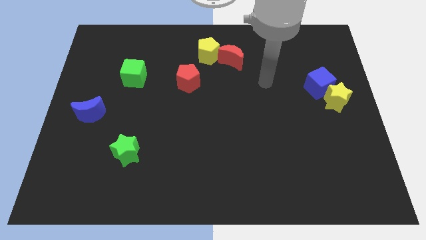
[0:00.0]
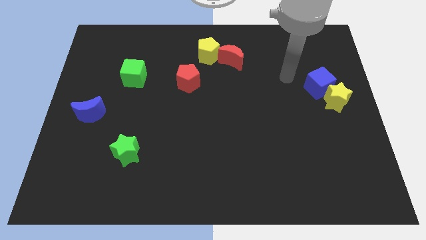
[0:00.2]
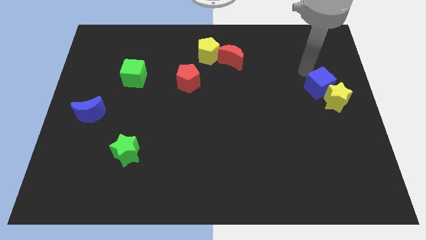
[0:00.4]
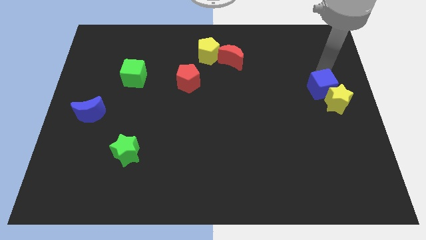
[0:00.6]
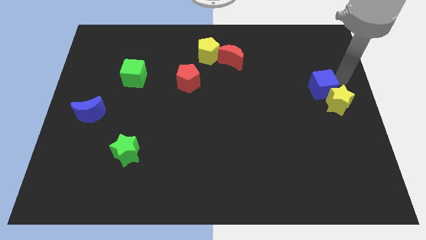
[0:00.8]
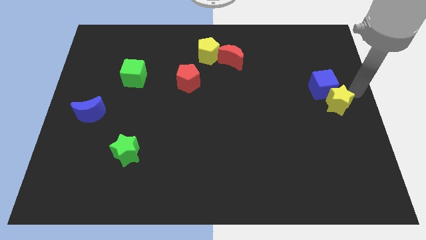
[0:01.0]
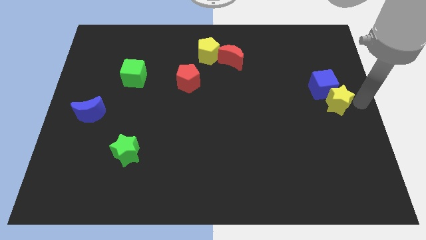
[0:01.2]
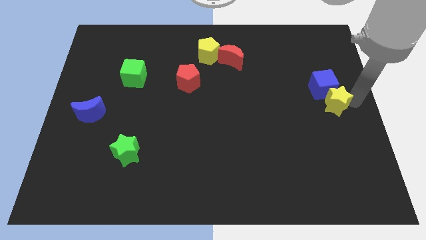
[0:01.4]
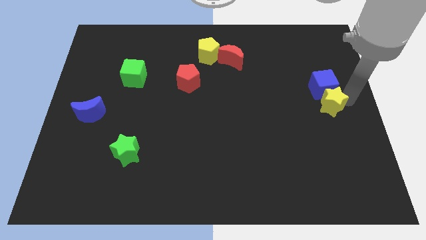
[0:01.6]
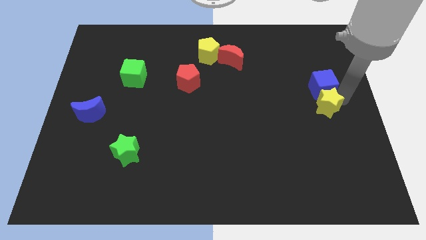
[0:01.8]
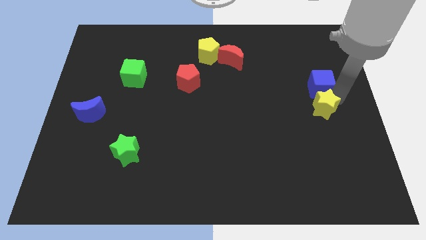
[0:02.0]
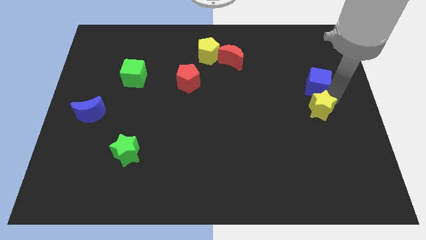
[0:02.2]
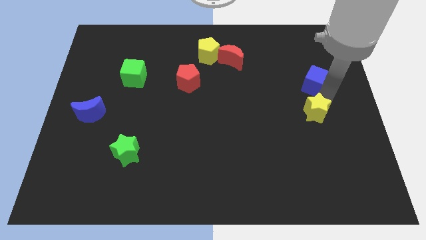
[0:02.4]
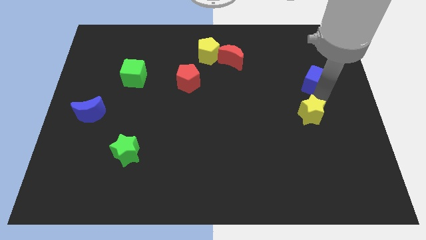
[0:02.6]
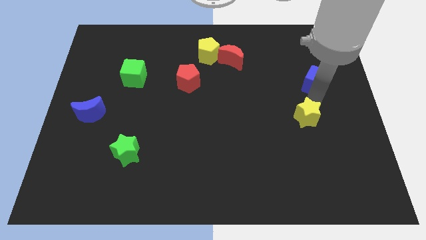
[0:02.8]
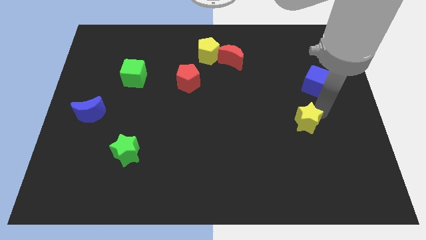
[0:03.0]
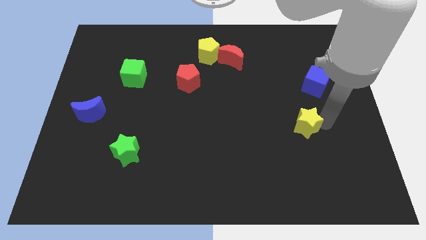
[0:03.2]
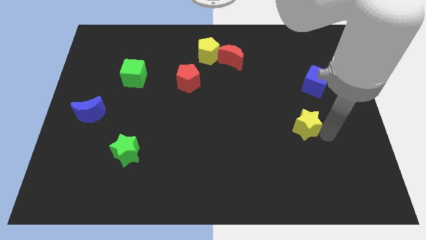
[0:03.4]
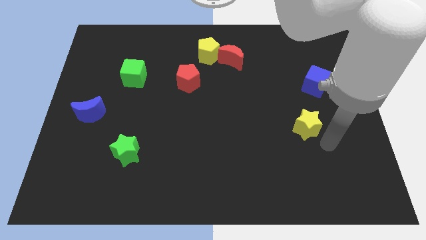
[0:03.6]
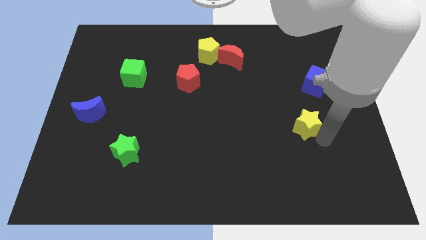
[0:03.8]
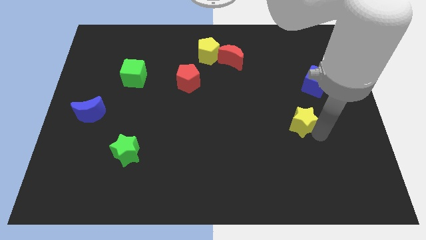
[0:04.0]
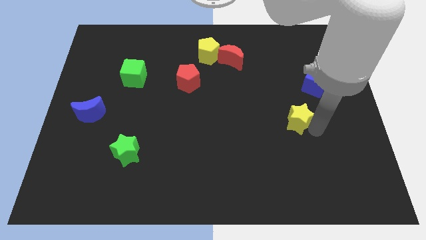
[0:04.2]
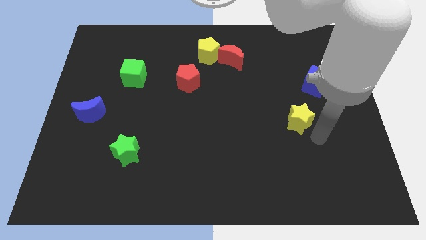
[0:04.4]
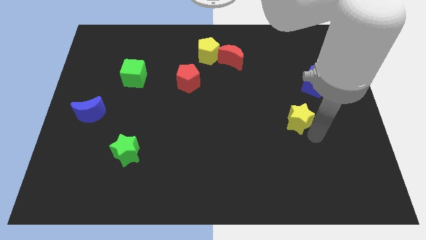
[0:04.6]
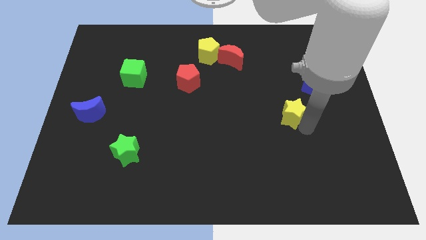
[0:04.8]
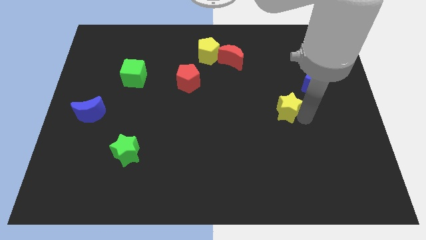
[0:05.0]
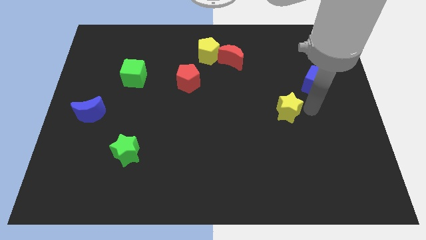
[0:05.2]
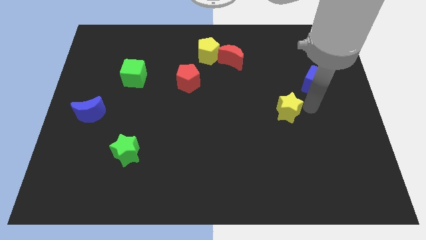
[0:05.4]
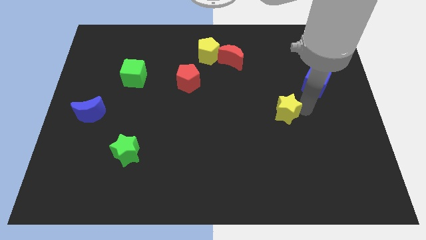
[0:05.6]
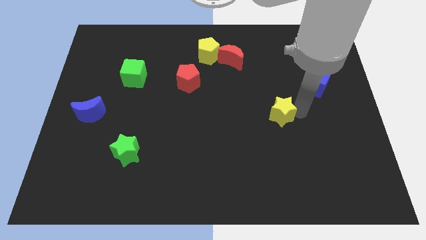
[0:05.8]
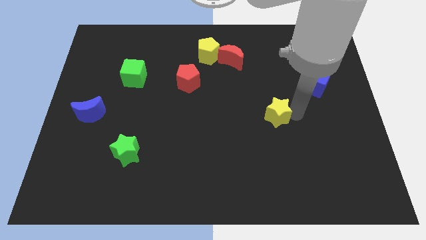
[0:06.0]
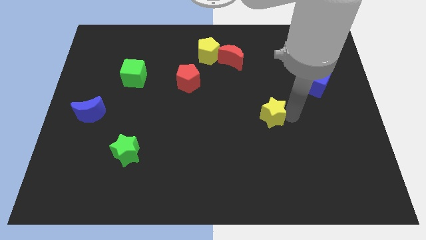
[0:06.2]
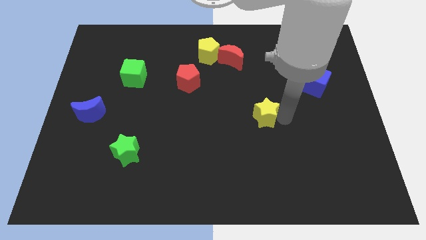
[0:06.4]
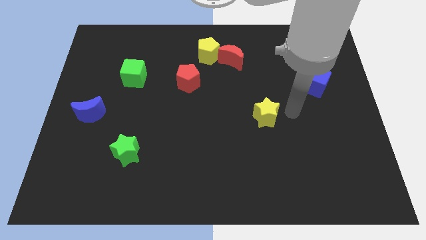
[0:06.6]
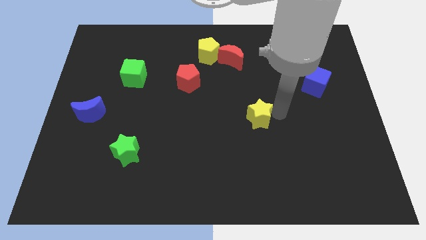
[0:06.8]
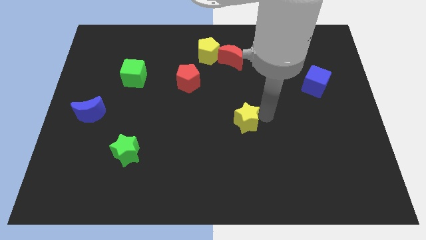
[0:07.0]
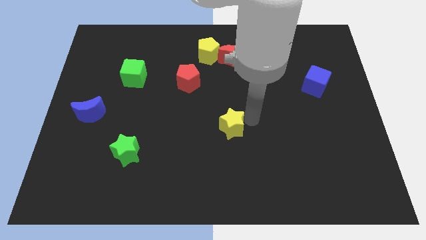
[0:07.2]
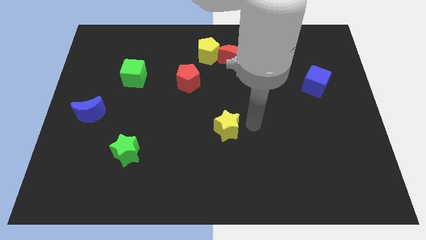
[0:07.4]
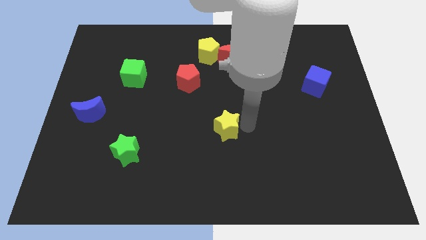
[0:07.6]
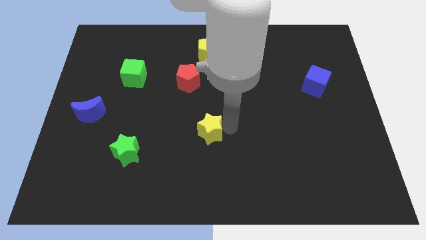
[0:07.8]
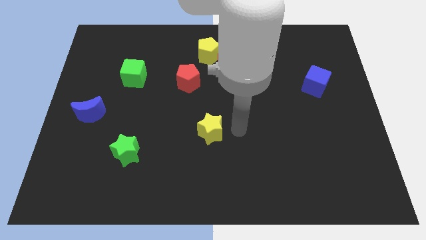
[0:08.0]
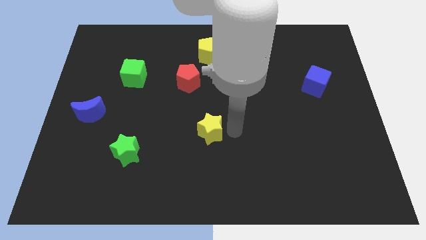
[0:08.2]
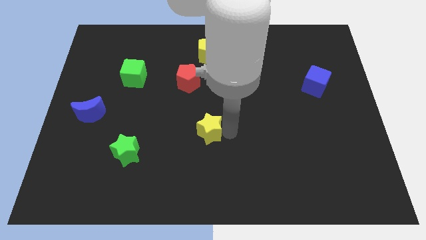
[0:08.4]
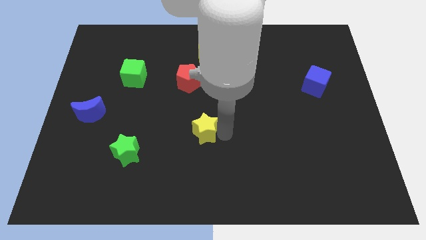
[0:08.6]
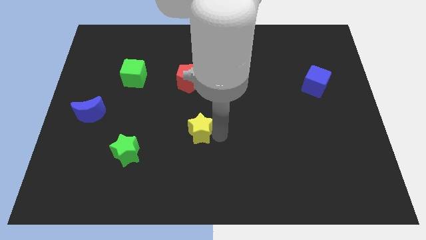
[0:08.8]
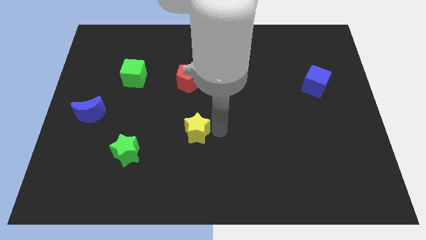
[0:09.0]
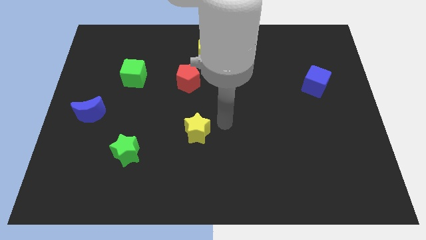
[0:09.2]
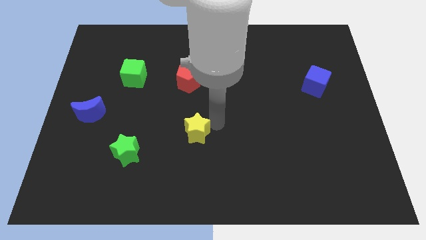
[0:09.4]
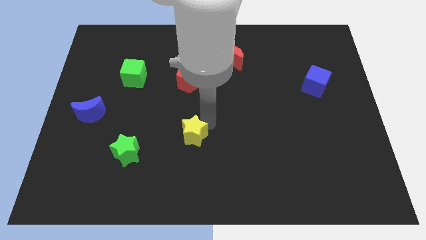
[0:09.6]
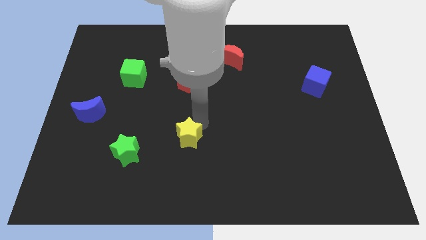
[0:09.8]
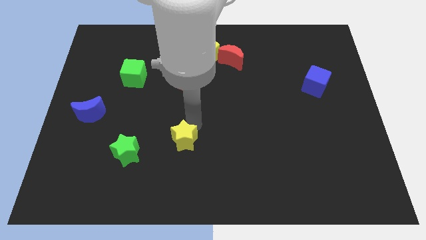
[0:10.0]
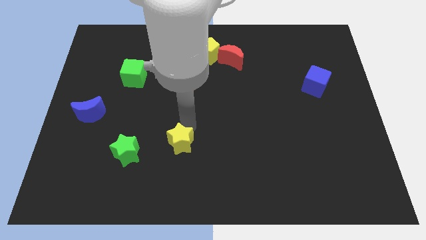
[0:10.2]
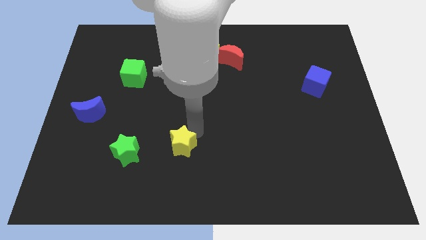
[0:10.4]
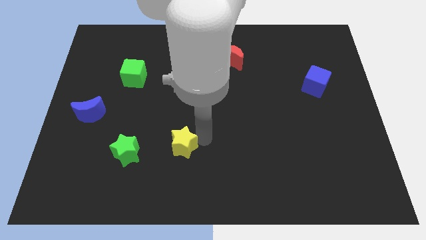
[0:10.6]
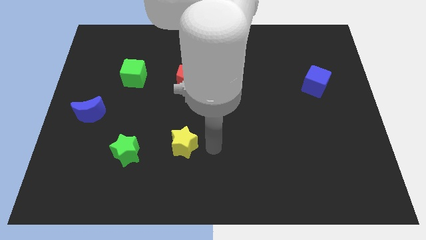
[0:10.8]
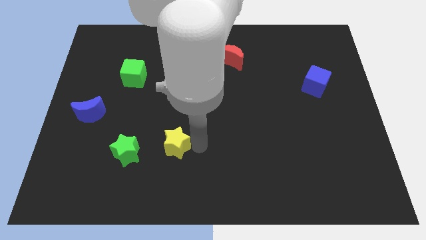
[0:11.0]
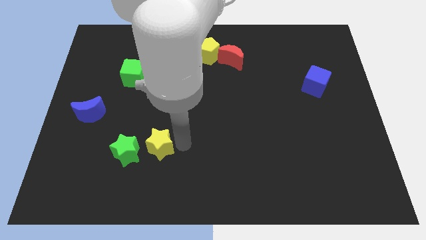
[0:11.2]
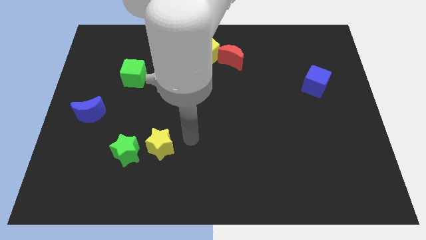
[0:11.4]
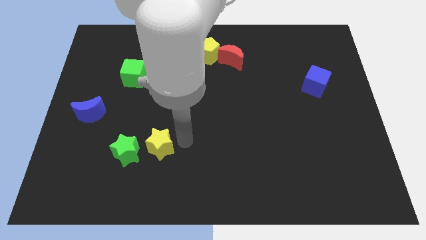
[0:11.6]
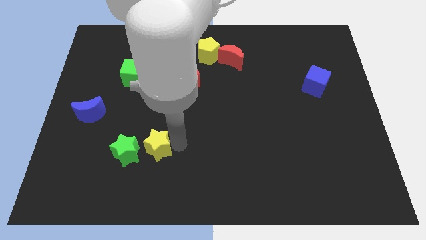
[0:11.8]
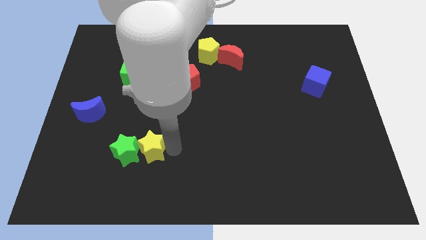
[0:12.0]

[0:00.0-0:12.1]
put the yellow star towards the green star

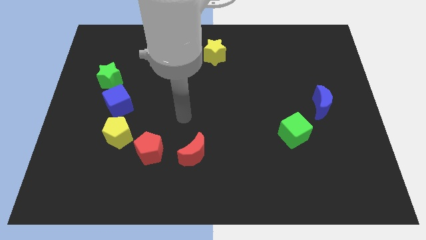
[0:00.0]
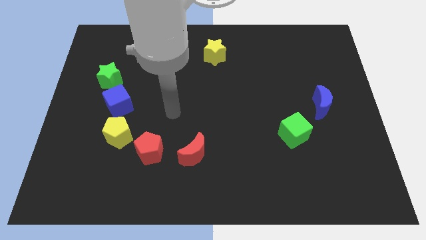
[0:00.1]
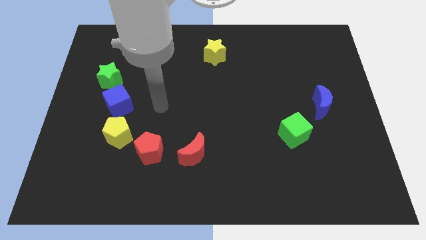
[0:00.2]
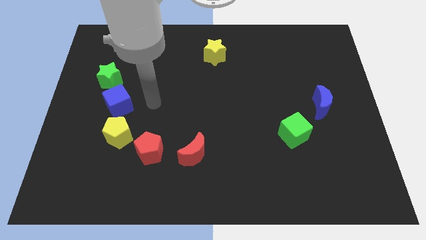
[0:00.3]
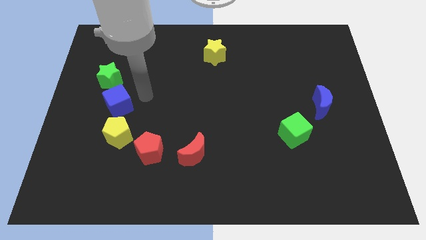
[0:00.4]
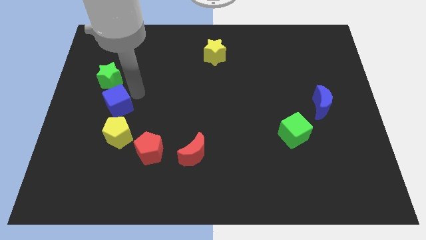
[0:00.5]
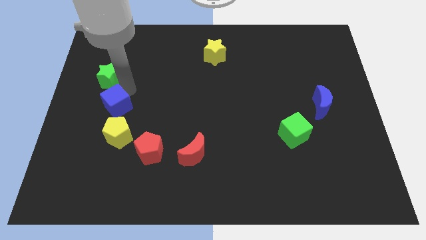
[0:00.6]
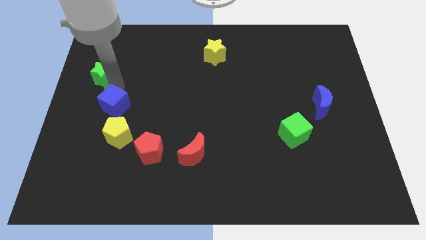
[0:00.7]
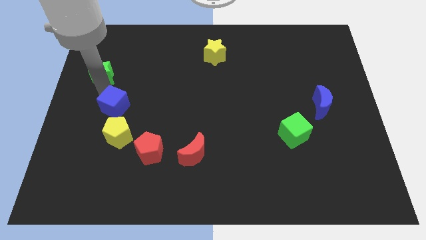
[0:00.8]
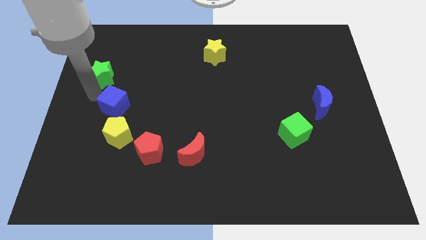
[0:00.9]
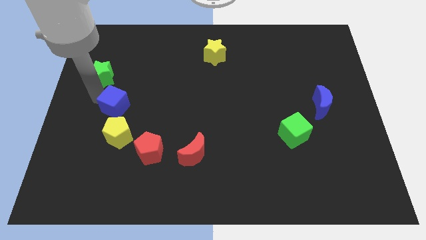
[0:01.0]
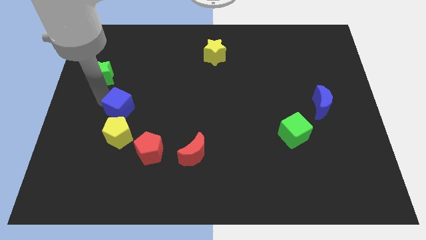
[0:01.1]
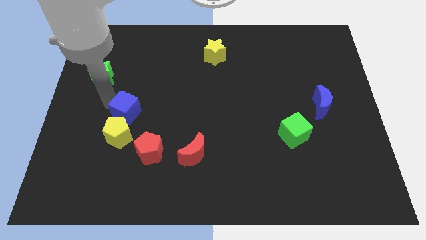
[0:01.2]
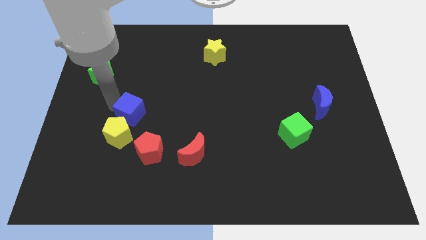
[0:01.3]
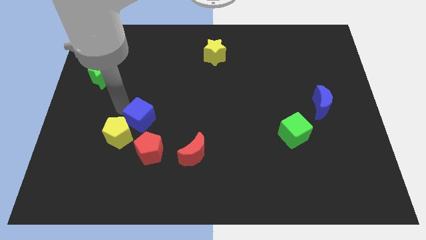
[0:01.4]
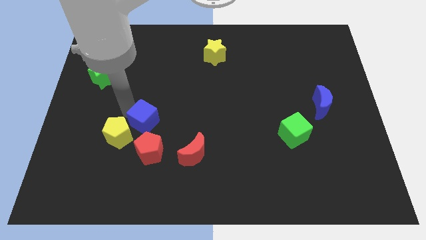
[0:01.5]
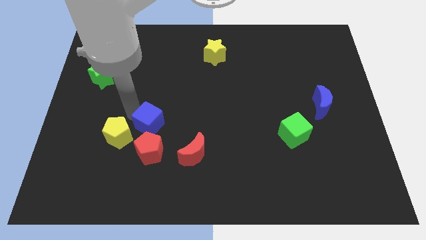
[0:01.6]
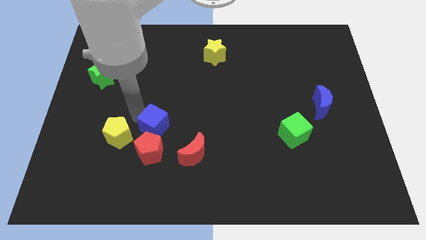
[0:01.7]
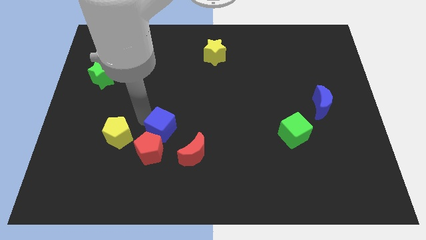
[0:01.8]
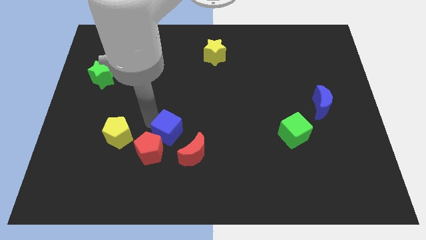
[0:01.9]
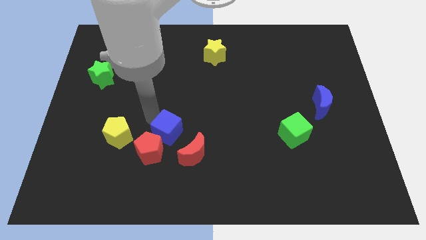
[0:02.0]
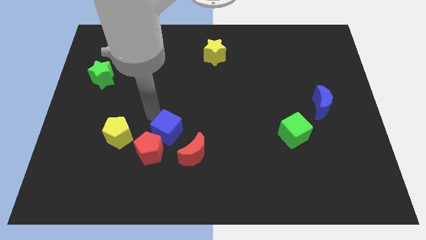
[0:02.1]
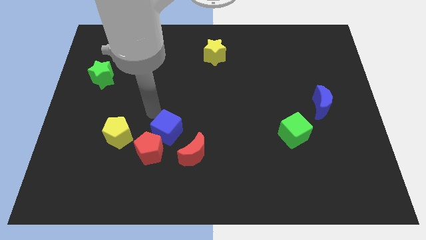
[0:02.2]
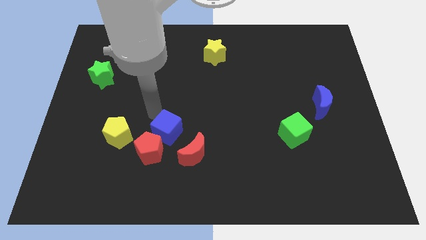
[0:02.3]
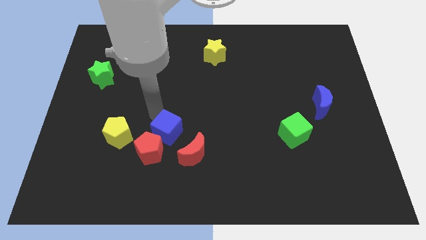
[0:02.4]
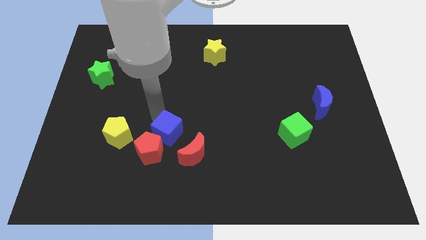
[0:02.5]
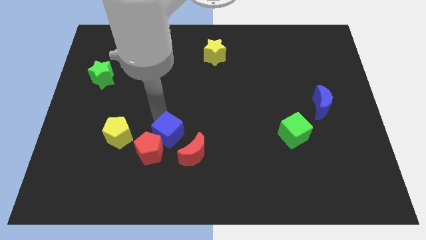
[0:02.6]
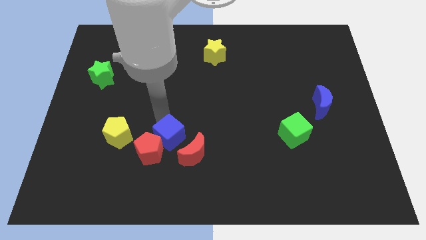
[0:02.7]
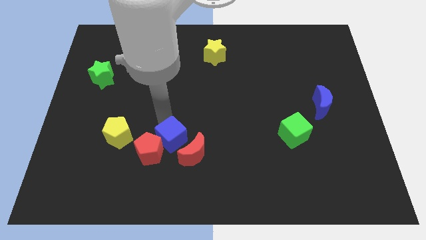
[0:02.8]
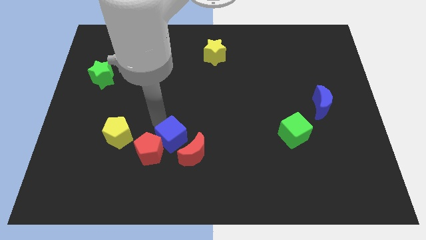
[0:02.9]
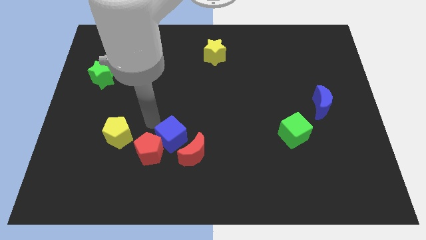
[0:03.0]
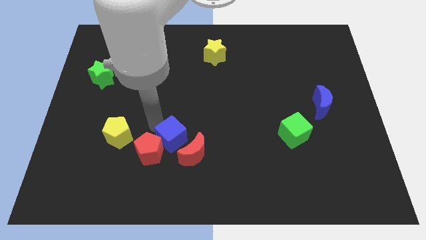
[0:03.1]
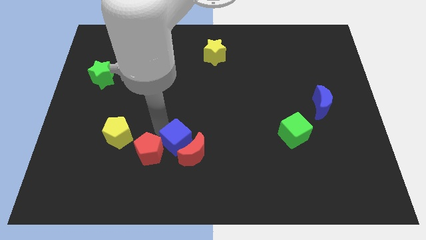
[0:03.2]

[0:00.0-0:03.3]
push the blue cube close to the red moon
